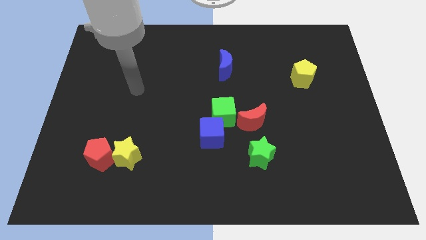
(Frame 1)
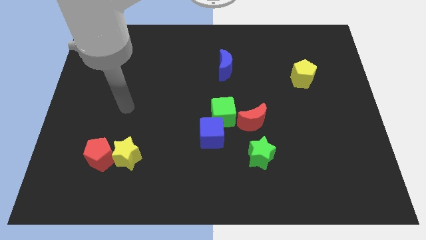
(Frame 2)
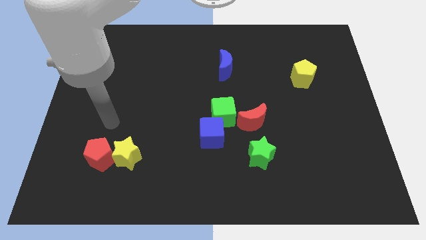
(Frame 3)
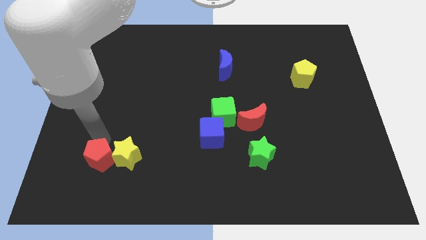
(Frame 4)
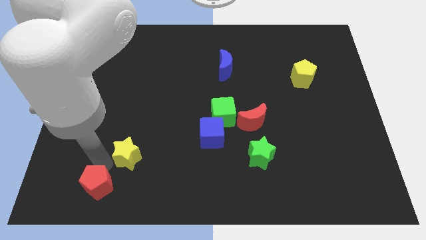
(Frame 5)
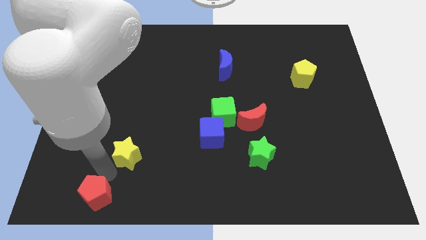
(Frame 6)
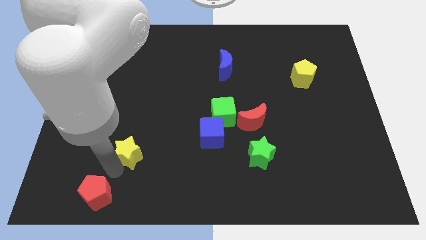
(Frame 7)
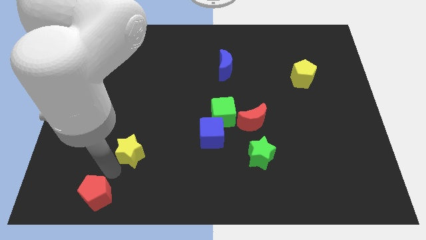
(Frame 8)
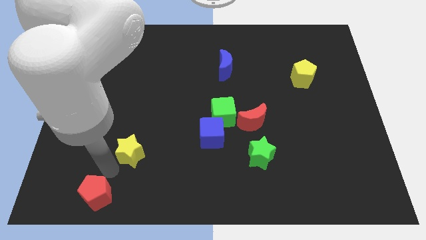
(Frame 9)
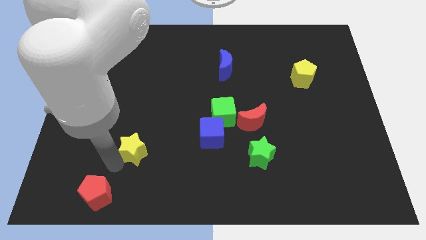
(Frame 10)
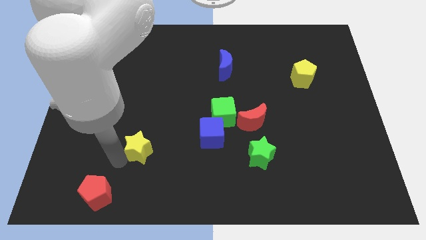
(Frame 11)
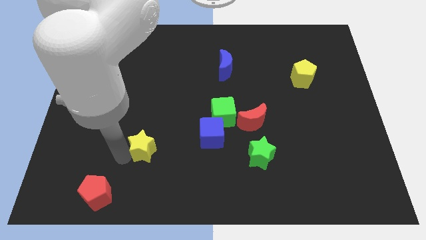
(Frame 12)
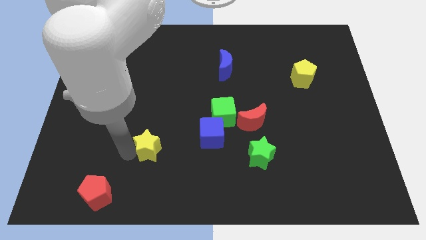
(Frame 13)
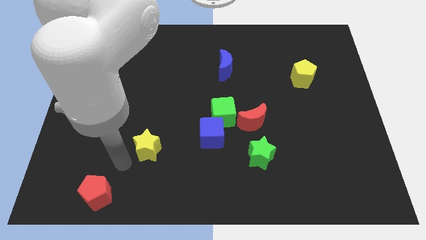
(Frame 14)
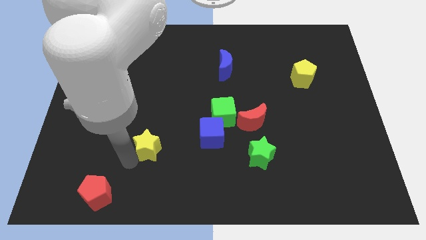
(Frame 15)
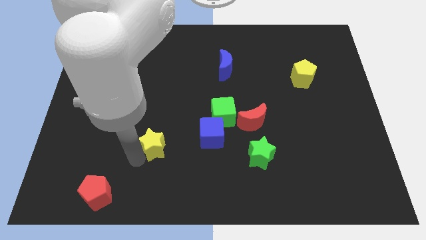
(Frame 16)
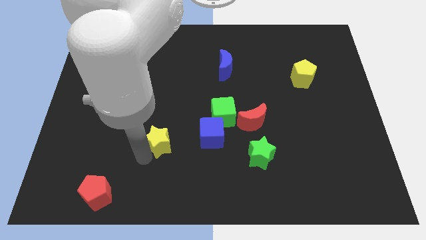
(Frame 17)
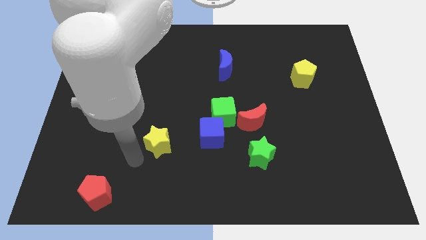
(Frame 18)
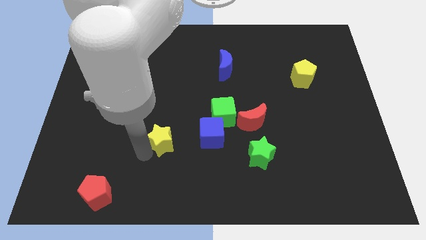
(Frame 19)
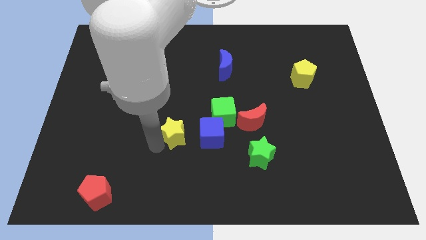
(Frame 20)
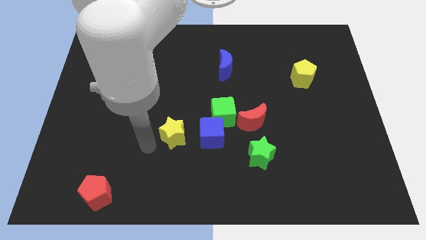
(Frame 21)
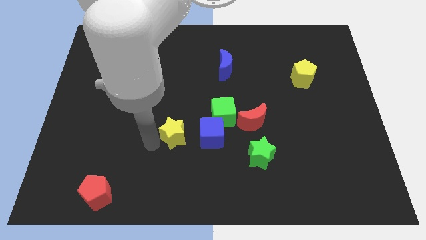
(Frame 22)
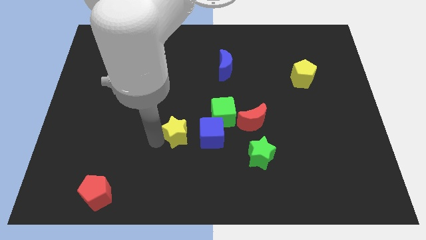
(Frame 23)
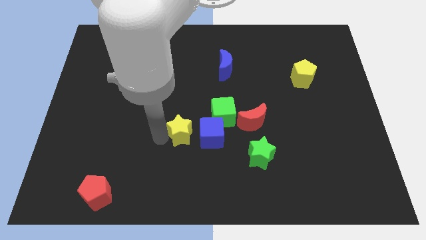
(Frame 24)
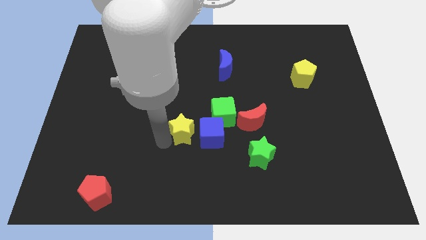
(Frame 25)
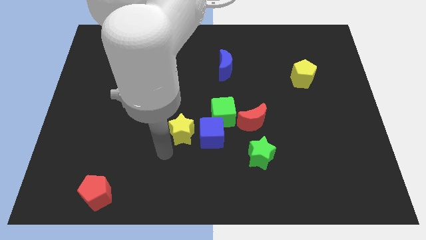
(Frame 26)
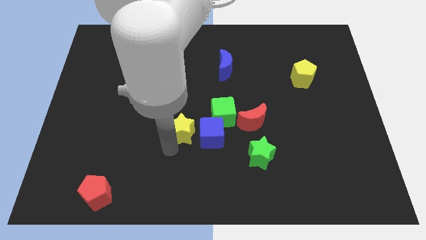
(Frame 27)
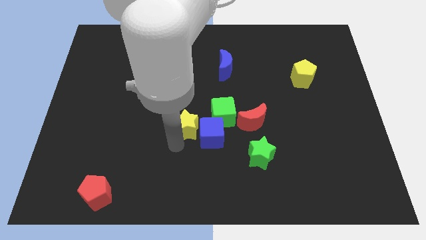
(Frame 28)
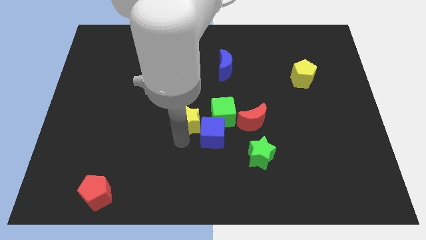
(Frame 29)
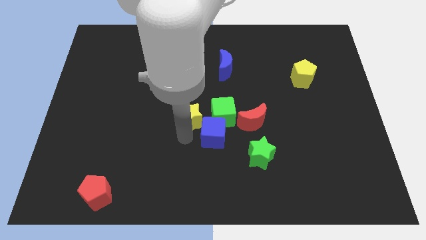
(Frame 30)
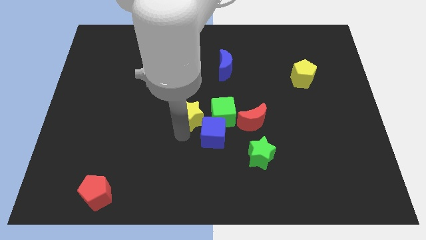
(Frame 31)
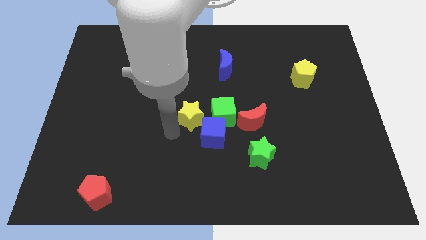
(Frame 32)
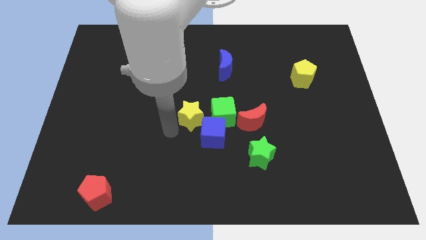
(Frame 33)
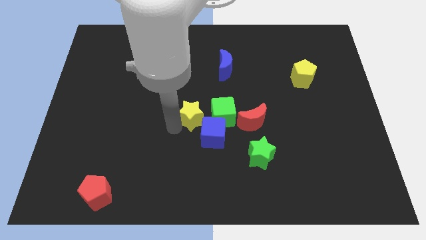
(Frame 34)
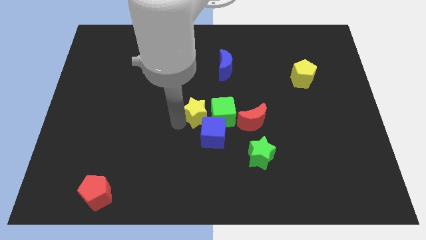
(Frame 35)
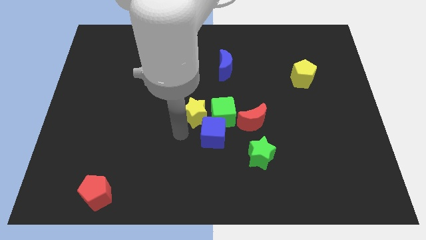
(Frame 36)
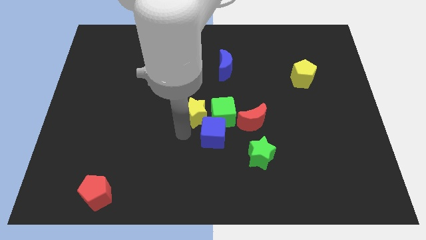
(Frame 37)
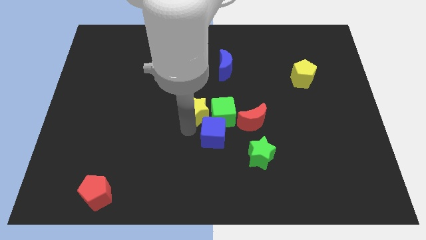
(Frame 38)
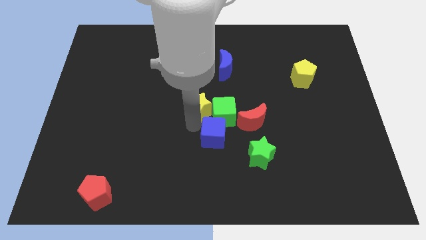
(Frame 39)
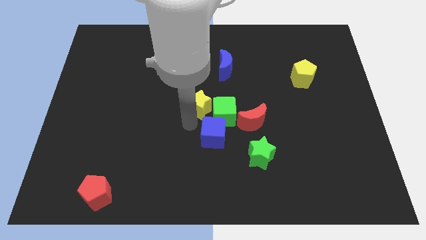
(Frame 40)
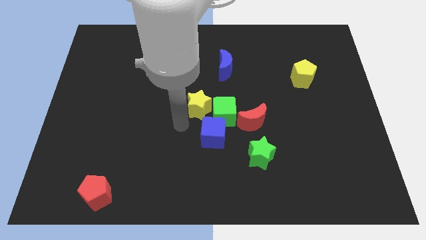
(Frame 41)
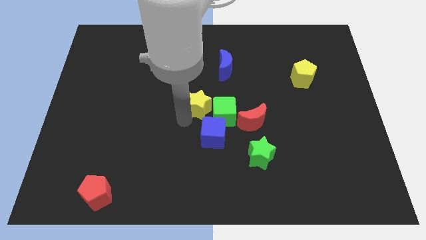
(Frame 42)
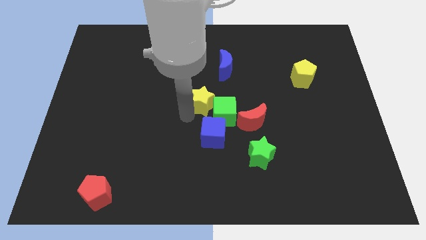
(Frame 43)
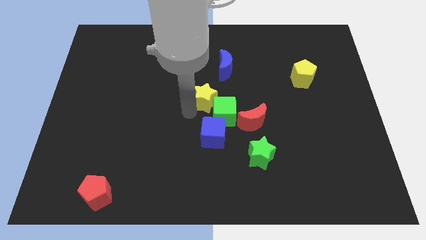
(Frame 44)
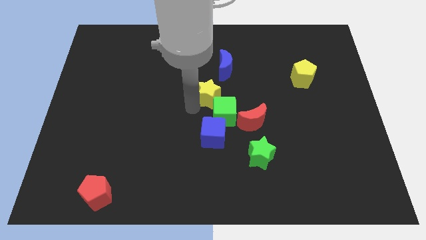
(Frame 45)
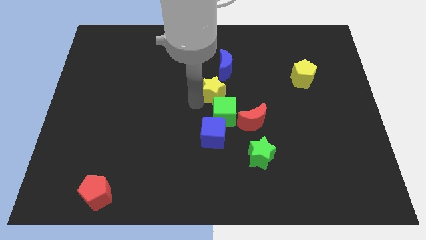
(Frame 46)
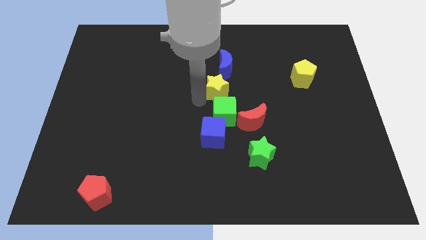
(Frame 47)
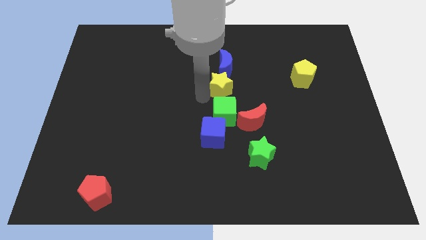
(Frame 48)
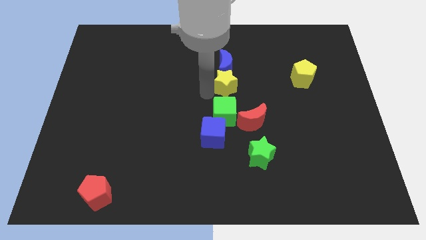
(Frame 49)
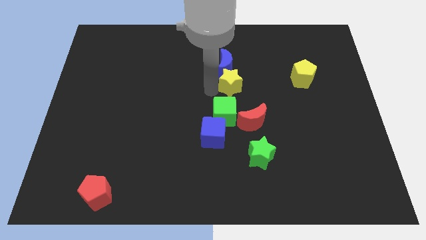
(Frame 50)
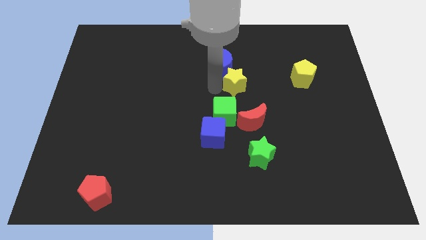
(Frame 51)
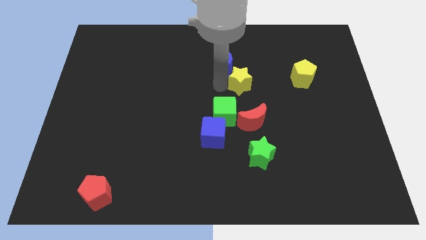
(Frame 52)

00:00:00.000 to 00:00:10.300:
push the yellow star just left of the yellow pentagon

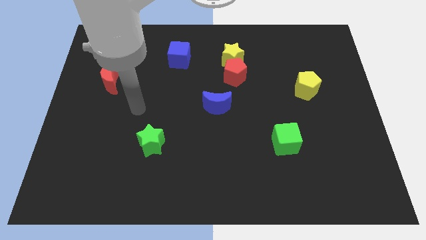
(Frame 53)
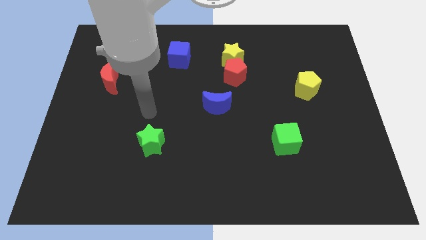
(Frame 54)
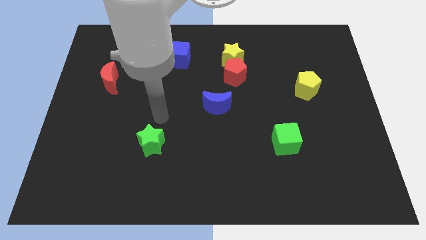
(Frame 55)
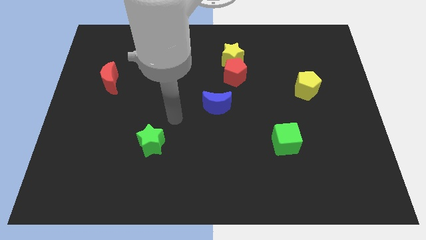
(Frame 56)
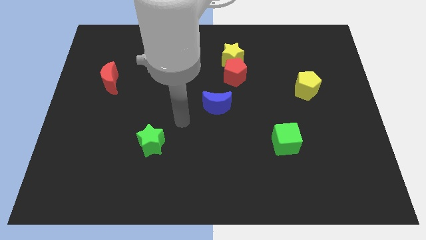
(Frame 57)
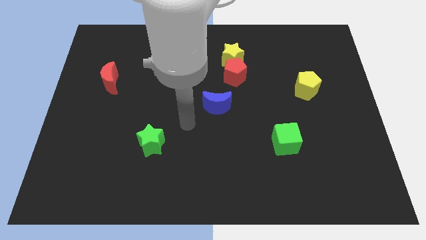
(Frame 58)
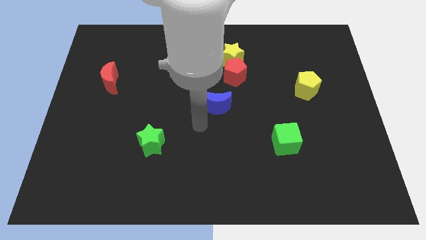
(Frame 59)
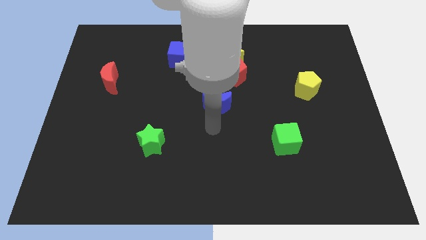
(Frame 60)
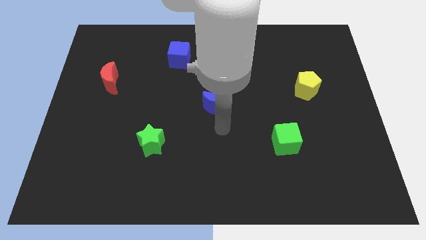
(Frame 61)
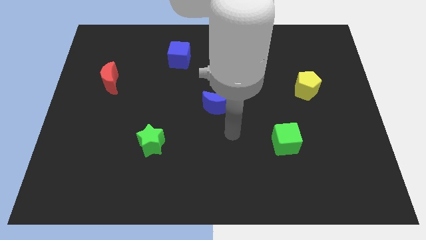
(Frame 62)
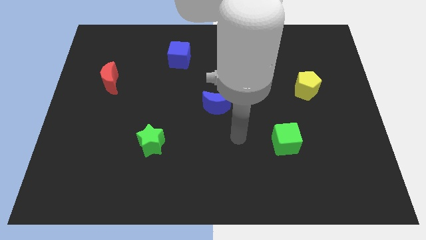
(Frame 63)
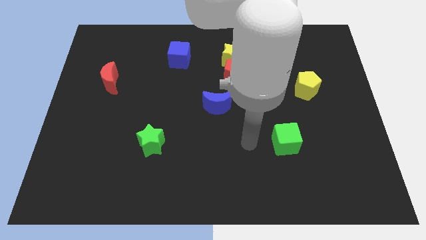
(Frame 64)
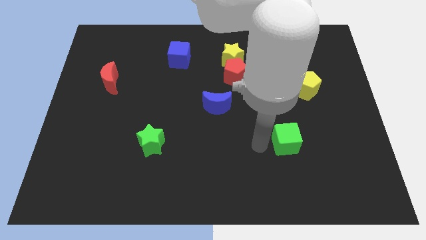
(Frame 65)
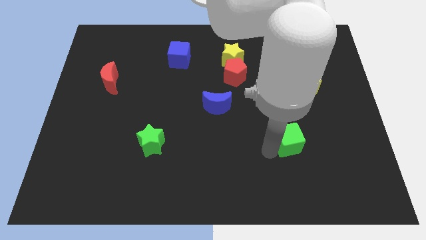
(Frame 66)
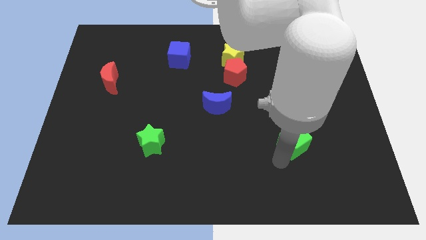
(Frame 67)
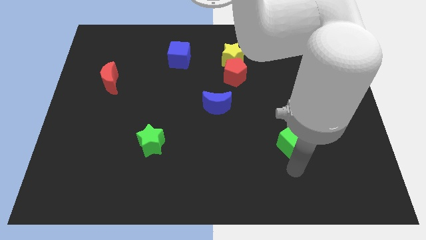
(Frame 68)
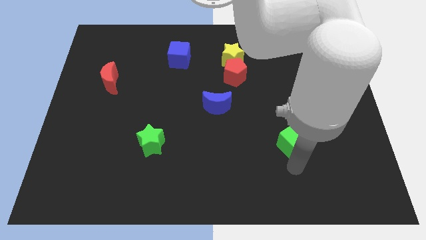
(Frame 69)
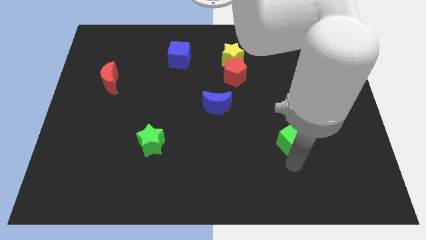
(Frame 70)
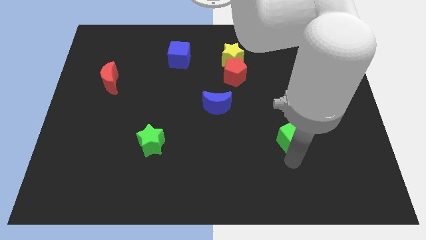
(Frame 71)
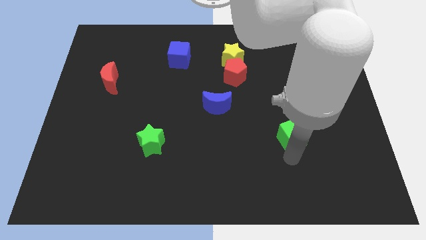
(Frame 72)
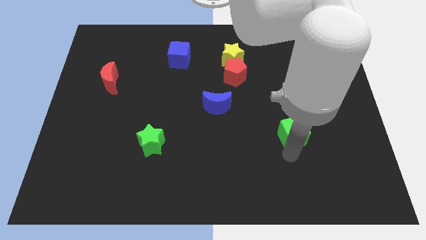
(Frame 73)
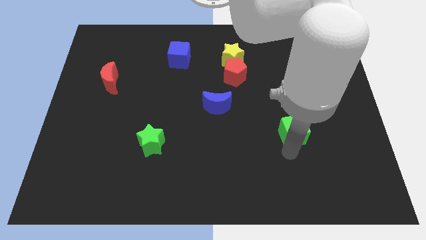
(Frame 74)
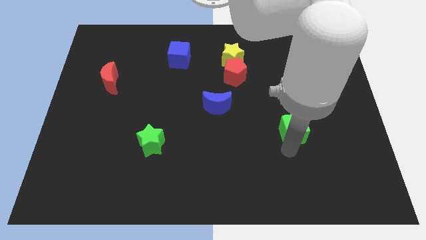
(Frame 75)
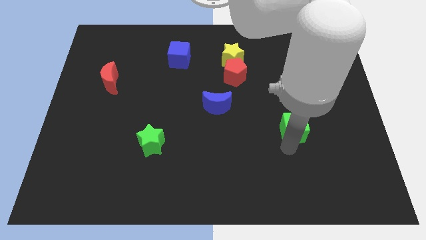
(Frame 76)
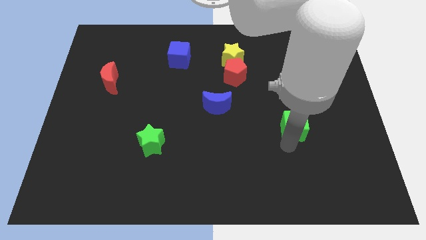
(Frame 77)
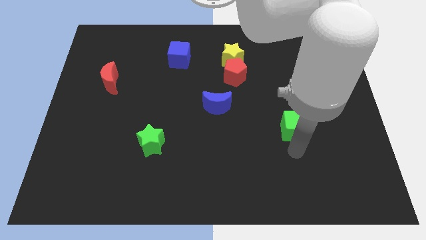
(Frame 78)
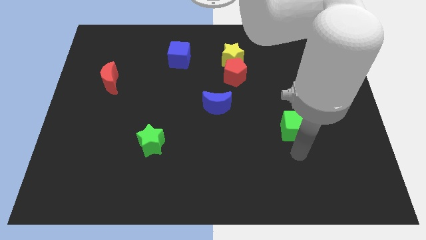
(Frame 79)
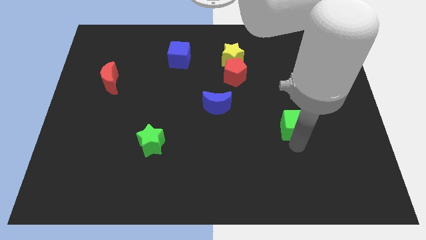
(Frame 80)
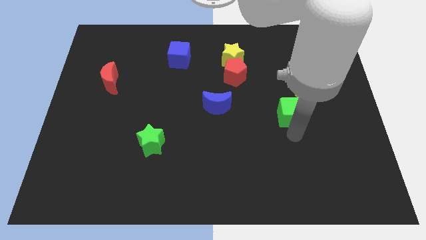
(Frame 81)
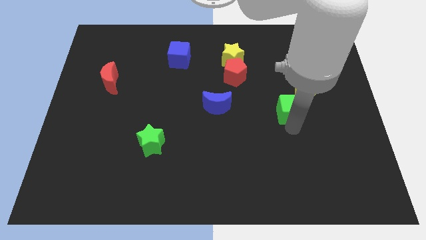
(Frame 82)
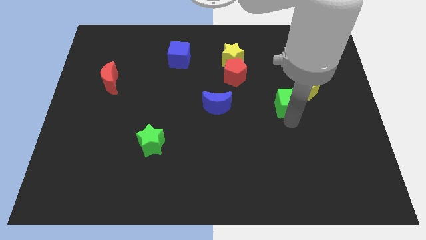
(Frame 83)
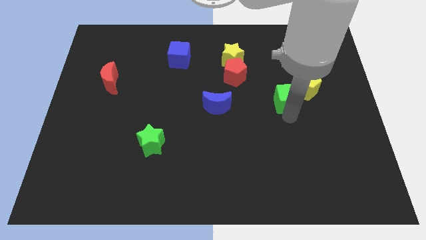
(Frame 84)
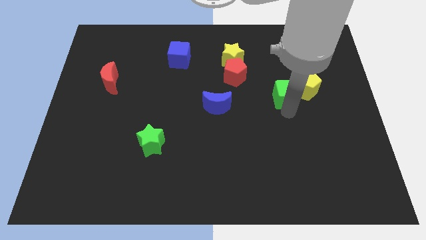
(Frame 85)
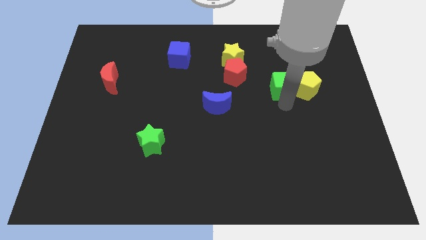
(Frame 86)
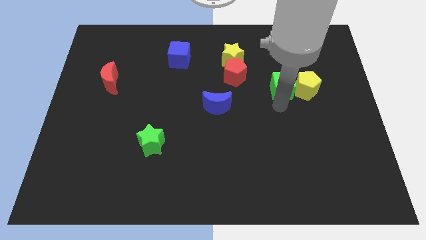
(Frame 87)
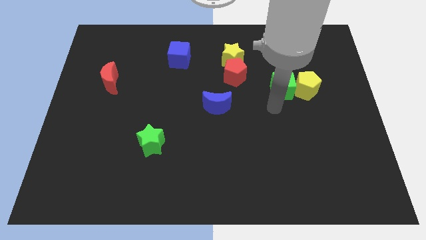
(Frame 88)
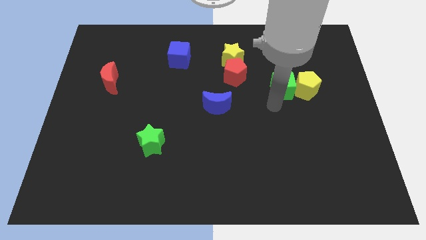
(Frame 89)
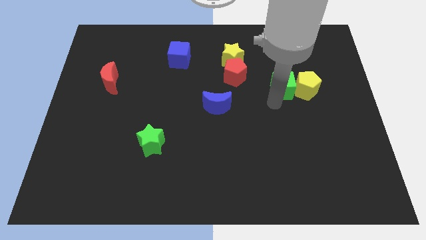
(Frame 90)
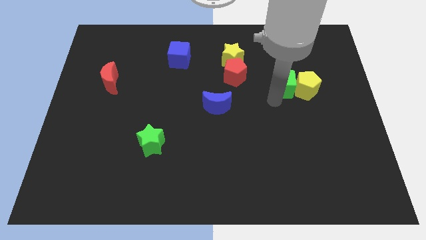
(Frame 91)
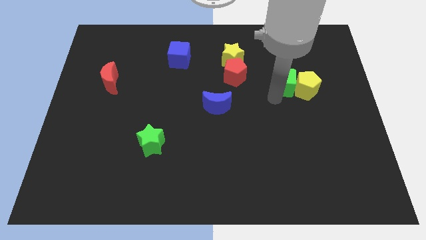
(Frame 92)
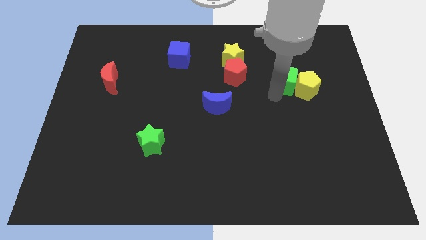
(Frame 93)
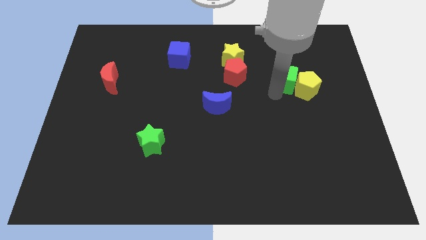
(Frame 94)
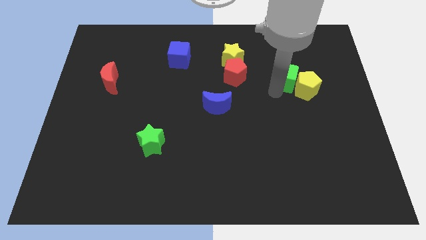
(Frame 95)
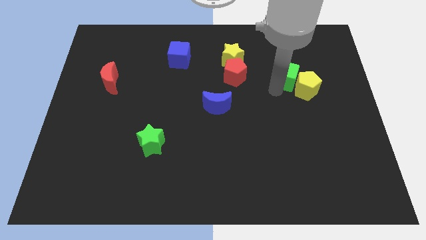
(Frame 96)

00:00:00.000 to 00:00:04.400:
move the green cube above the yellow pentagon
